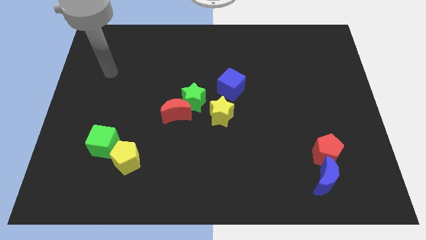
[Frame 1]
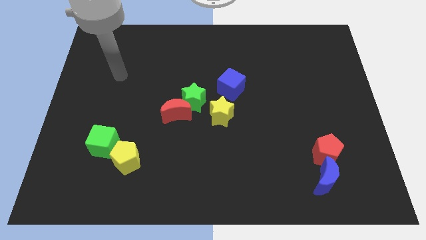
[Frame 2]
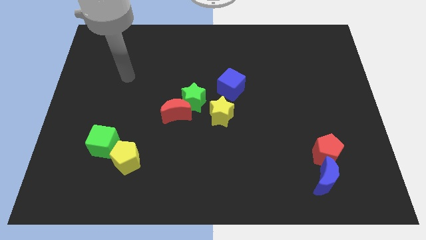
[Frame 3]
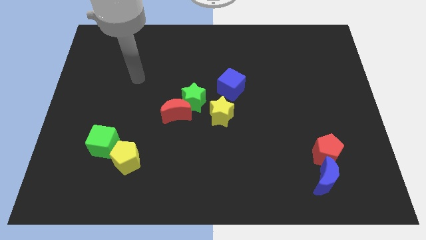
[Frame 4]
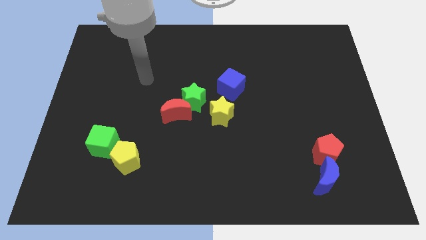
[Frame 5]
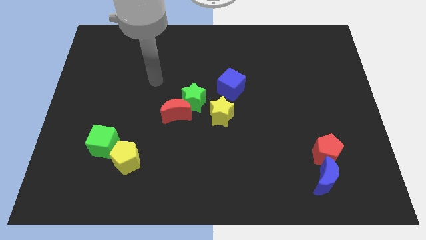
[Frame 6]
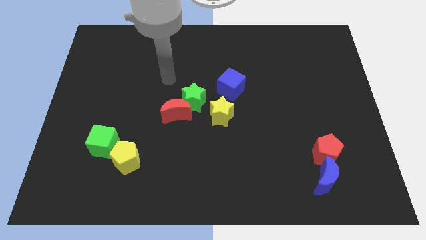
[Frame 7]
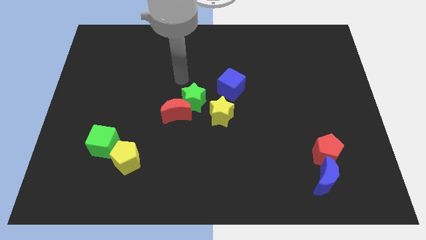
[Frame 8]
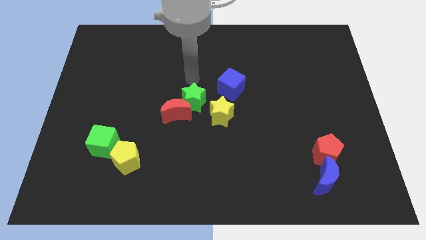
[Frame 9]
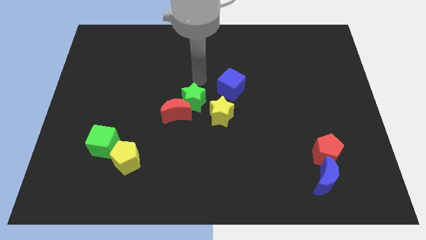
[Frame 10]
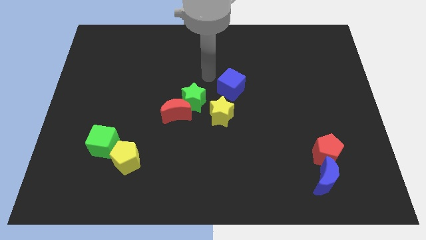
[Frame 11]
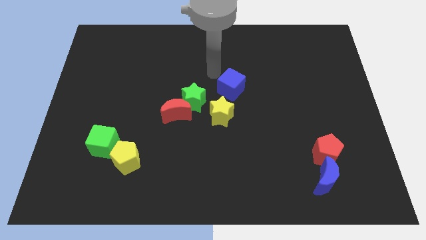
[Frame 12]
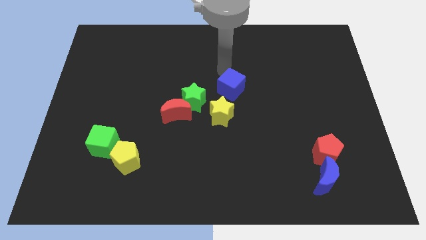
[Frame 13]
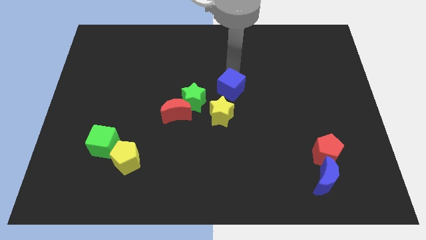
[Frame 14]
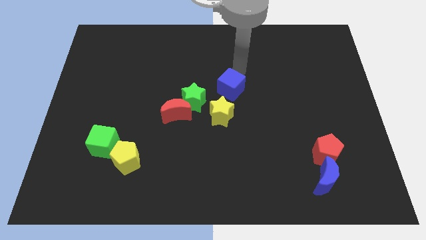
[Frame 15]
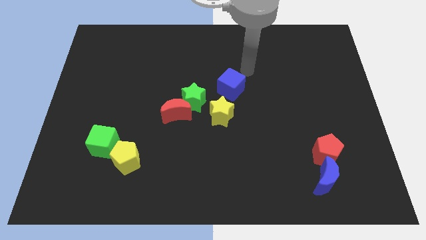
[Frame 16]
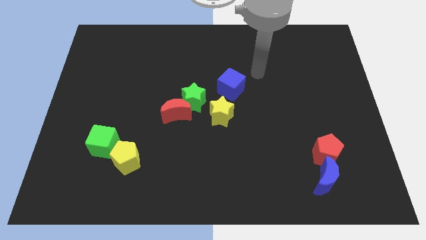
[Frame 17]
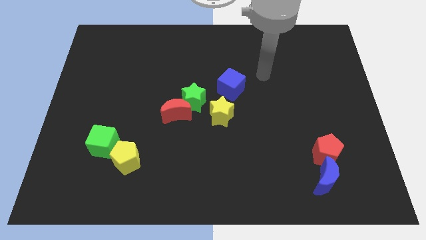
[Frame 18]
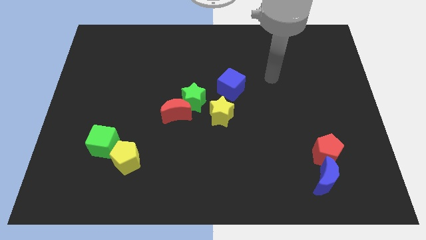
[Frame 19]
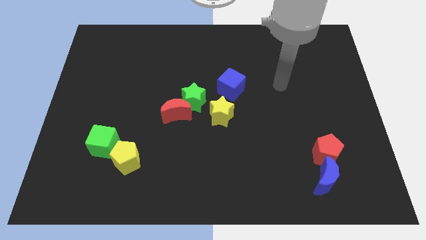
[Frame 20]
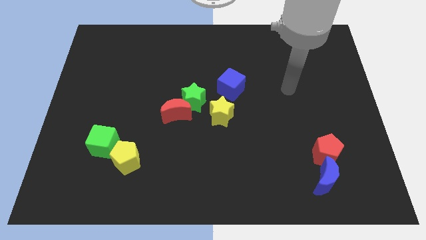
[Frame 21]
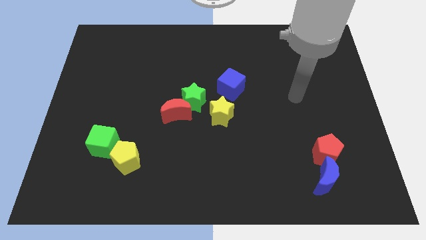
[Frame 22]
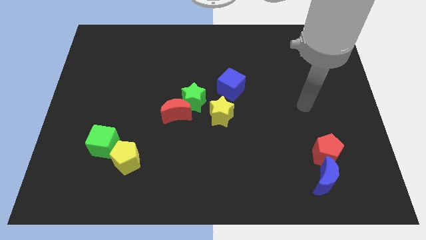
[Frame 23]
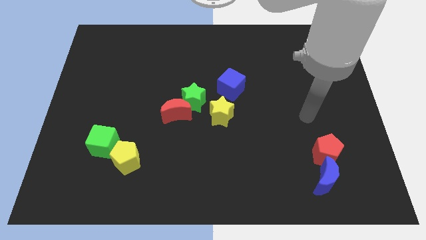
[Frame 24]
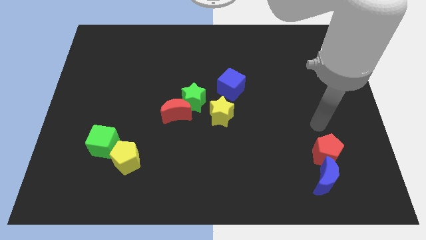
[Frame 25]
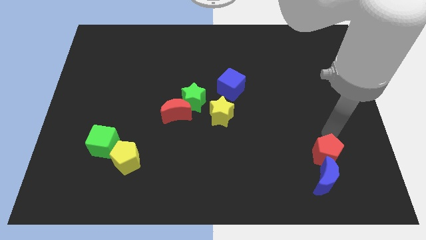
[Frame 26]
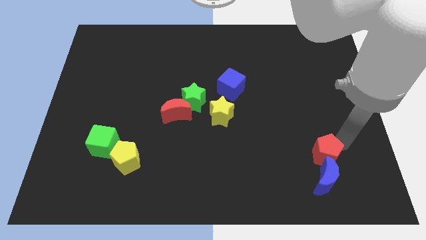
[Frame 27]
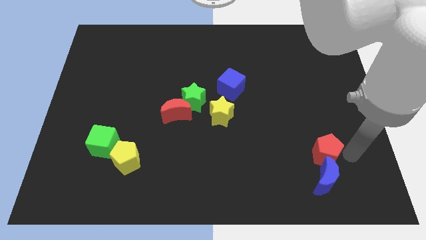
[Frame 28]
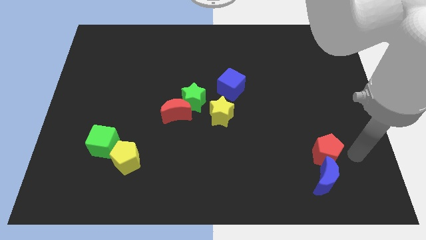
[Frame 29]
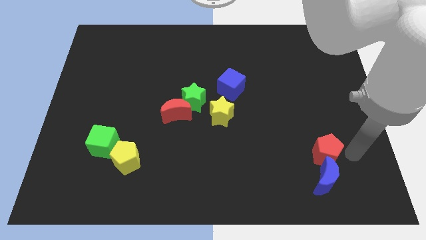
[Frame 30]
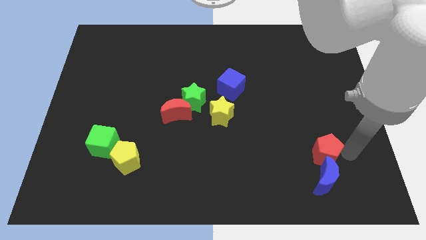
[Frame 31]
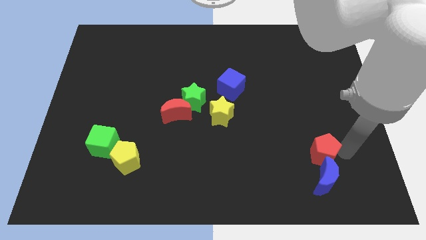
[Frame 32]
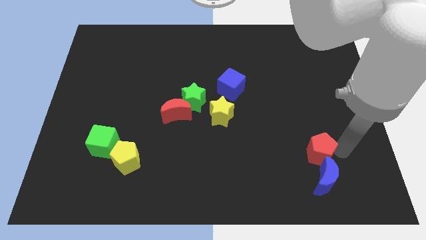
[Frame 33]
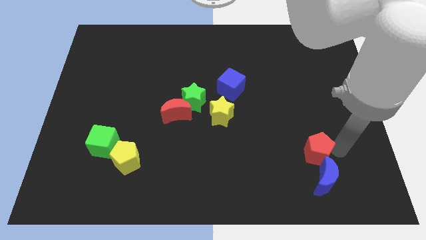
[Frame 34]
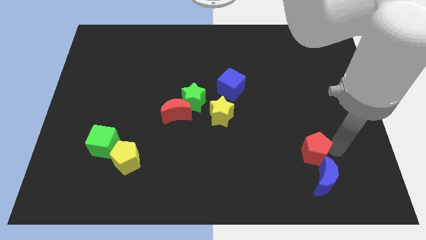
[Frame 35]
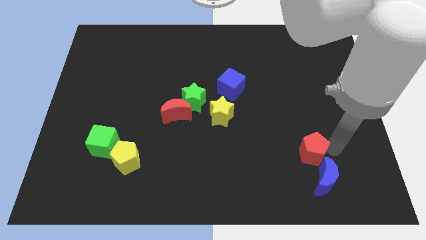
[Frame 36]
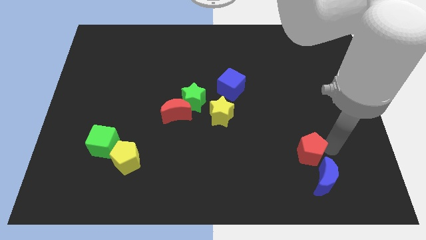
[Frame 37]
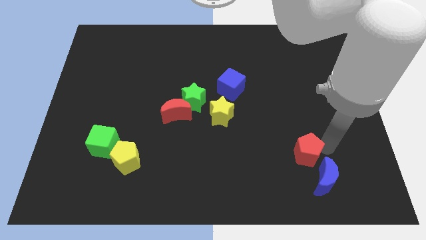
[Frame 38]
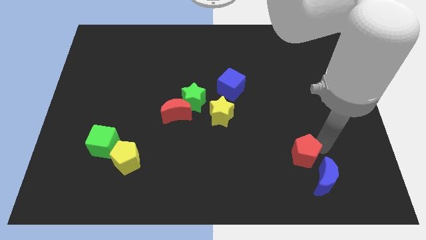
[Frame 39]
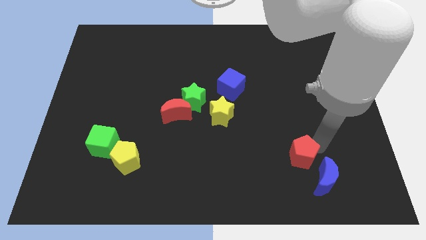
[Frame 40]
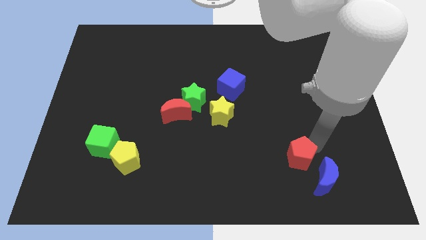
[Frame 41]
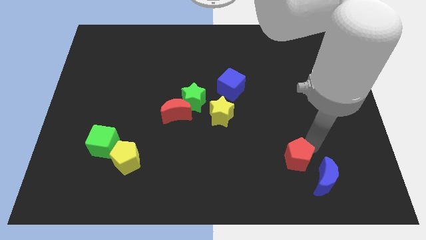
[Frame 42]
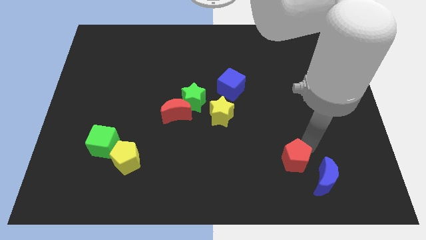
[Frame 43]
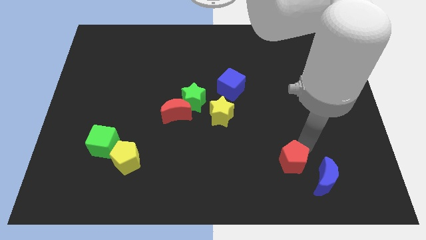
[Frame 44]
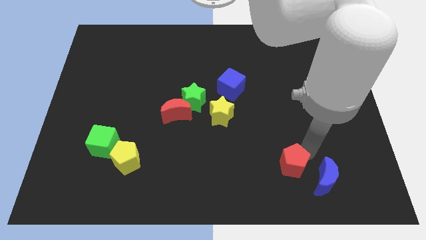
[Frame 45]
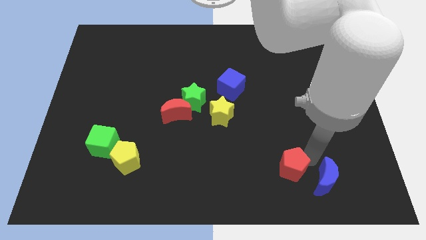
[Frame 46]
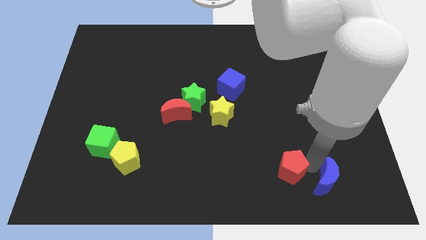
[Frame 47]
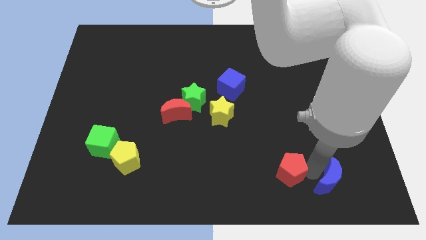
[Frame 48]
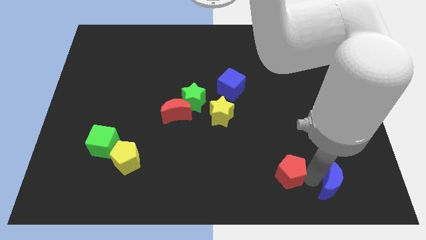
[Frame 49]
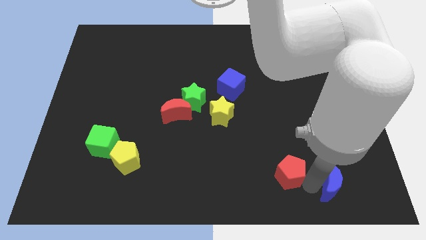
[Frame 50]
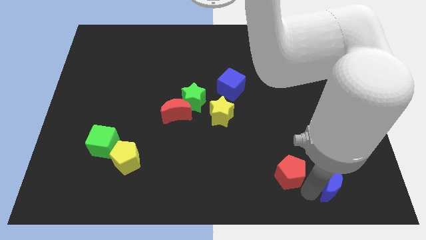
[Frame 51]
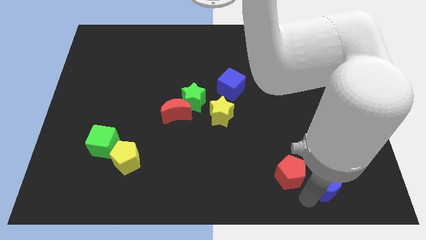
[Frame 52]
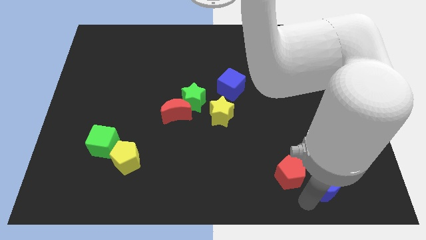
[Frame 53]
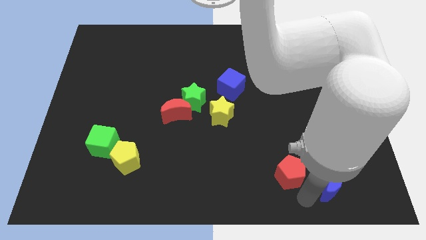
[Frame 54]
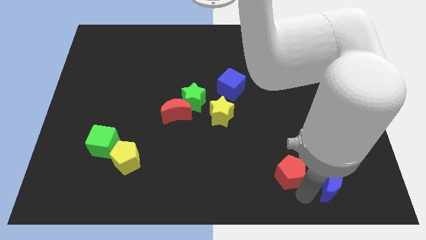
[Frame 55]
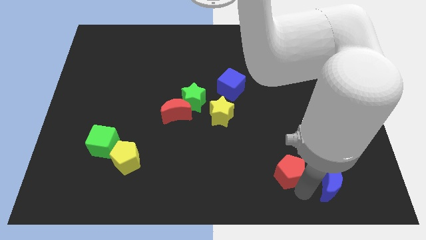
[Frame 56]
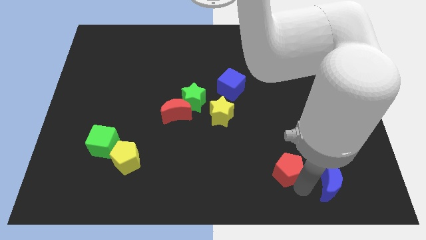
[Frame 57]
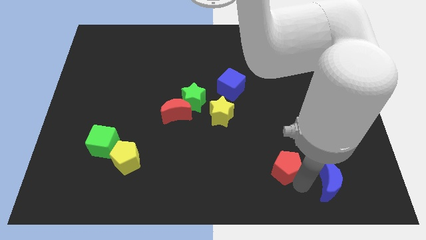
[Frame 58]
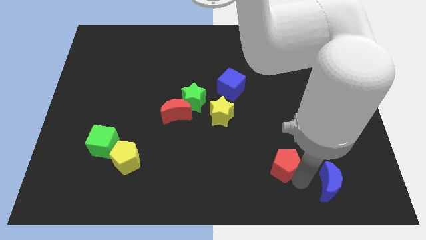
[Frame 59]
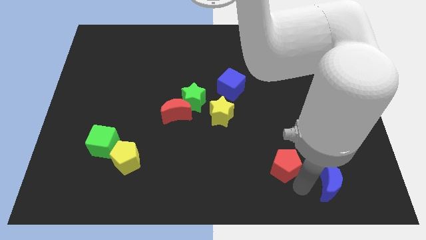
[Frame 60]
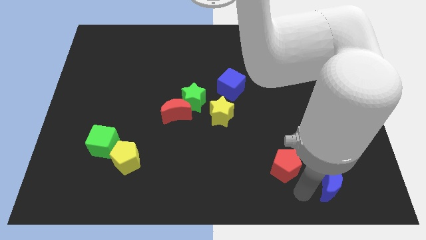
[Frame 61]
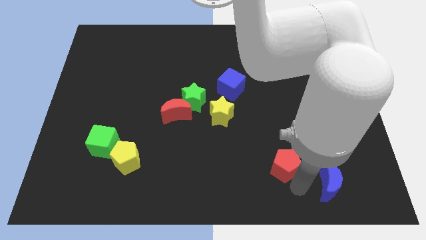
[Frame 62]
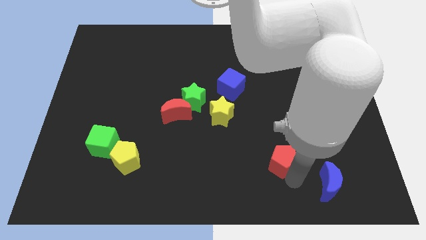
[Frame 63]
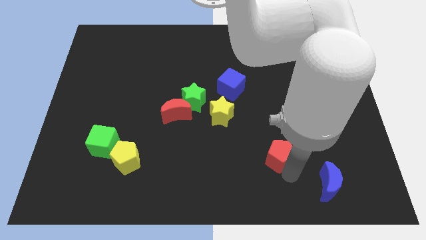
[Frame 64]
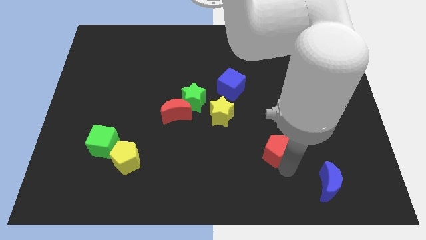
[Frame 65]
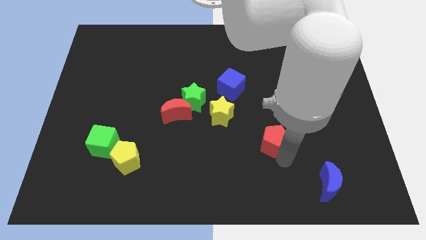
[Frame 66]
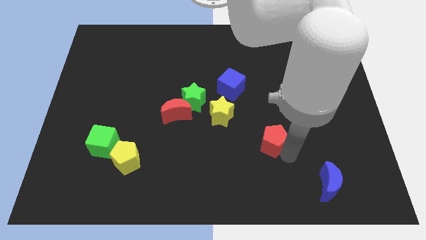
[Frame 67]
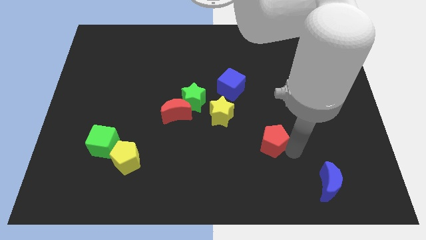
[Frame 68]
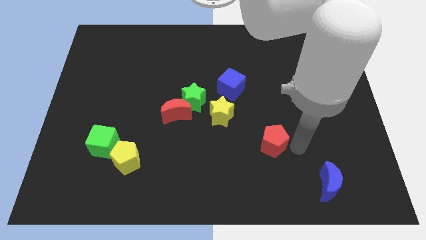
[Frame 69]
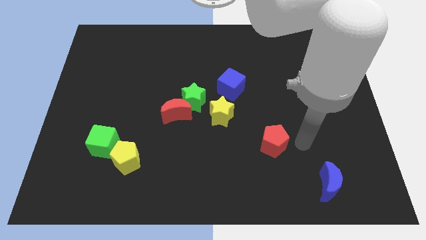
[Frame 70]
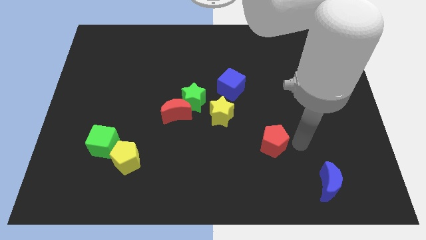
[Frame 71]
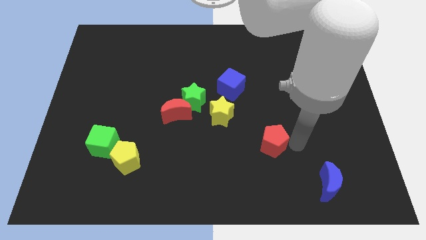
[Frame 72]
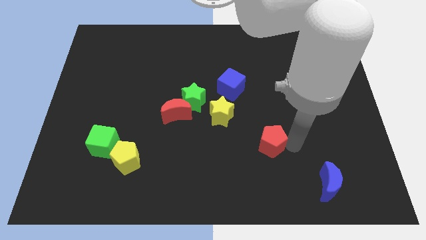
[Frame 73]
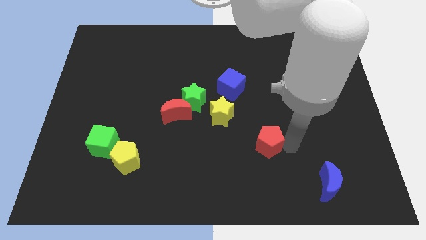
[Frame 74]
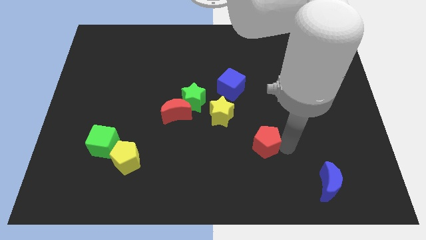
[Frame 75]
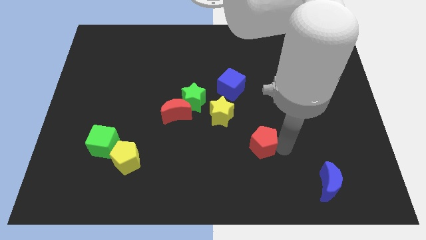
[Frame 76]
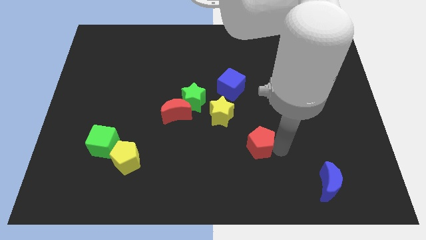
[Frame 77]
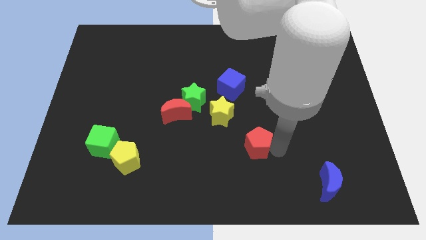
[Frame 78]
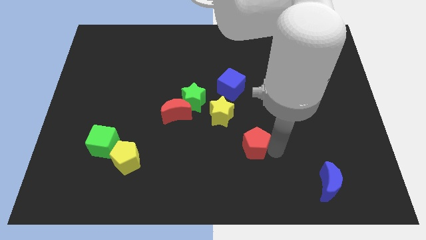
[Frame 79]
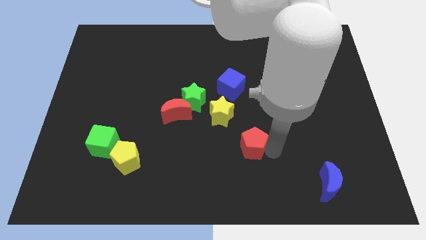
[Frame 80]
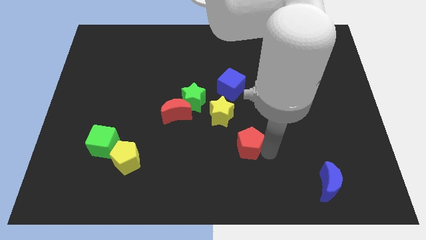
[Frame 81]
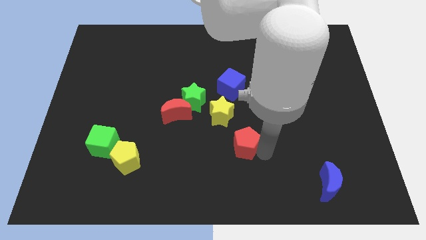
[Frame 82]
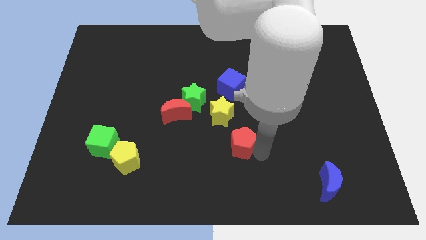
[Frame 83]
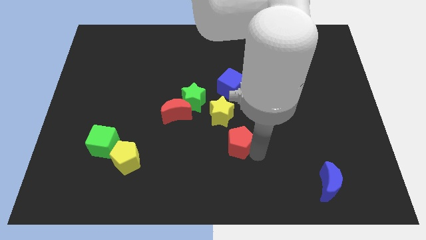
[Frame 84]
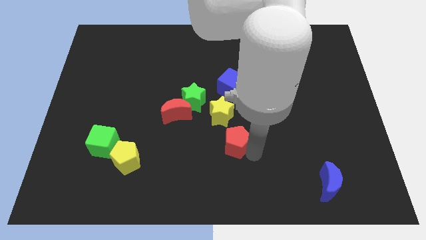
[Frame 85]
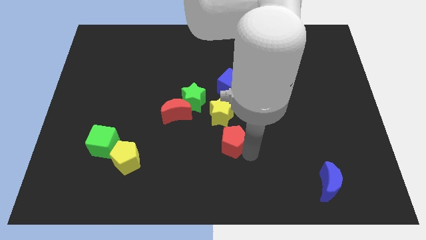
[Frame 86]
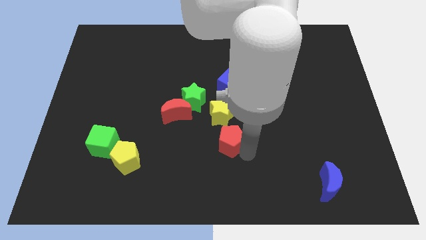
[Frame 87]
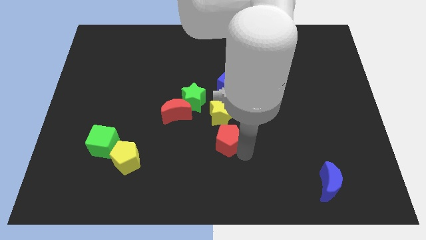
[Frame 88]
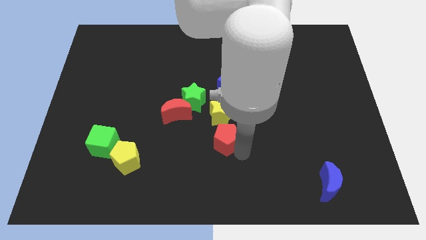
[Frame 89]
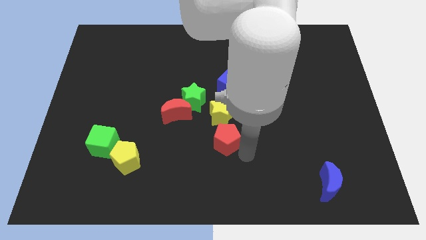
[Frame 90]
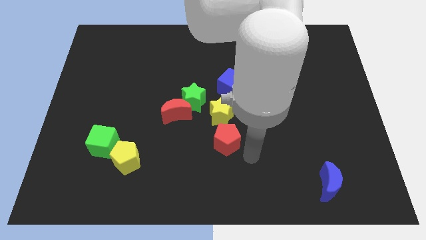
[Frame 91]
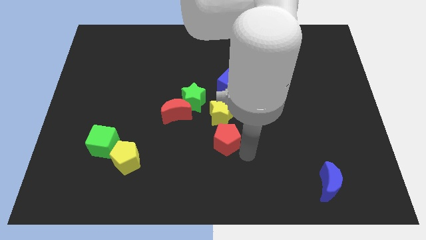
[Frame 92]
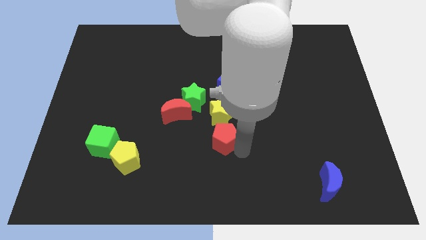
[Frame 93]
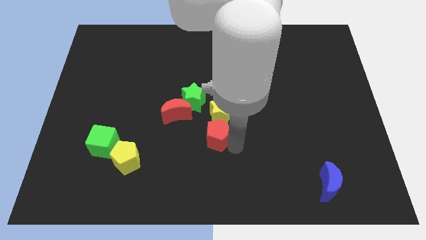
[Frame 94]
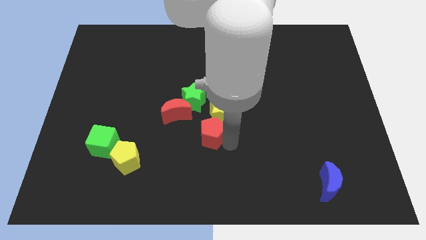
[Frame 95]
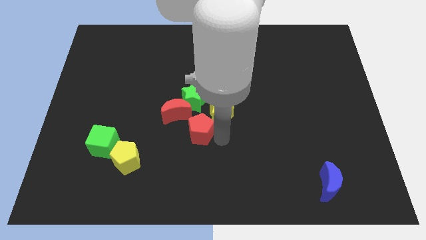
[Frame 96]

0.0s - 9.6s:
slide the red pentagon just left of the yellow star
